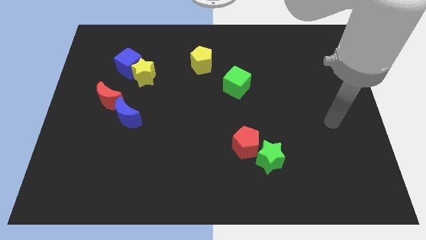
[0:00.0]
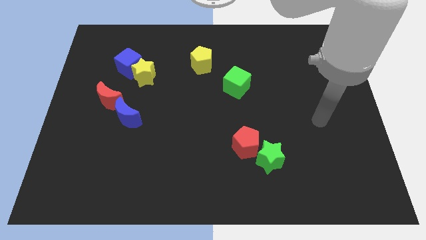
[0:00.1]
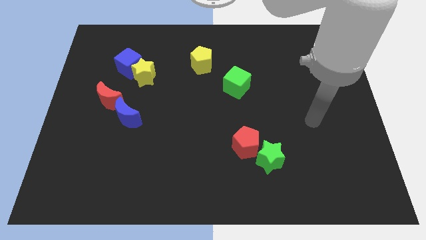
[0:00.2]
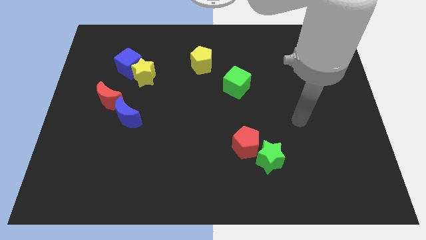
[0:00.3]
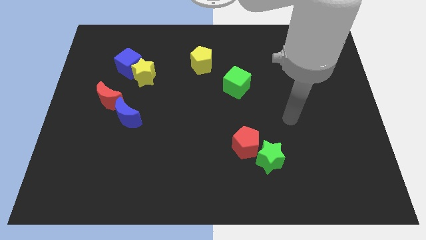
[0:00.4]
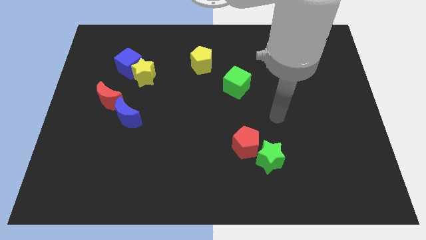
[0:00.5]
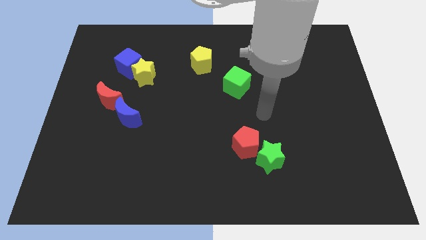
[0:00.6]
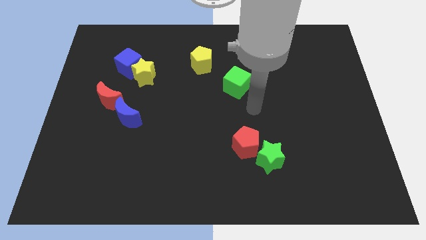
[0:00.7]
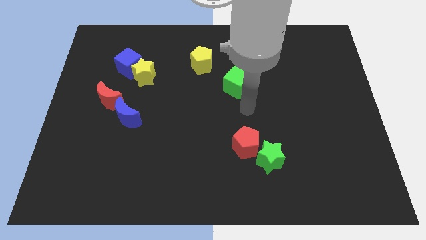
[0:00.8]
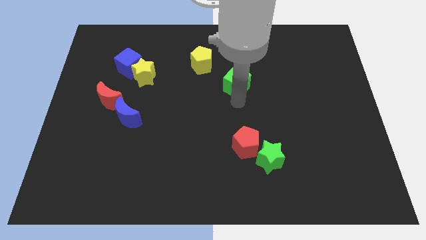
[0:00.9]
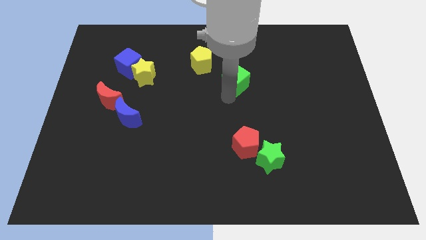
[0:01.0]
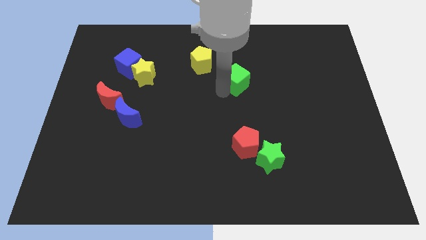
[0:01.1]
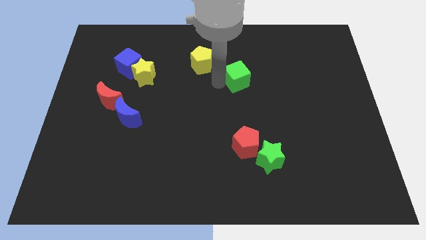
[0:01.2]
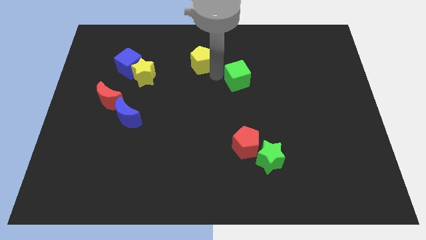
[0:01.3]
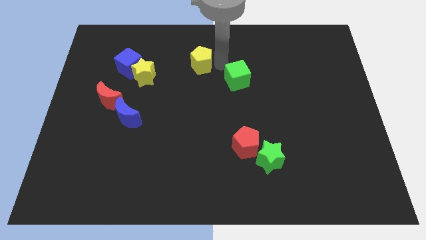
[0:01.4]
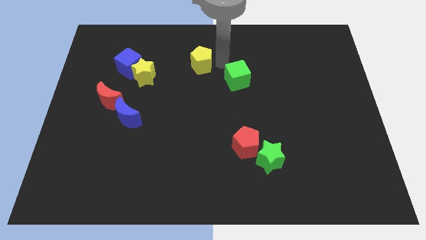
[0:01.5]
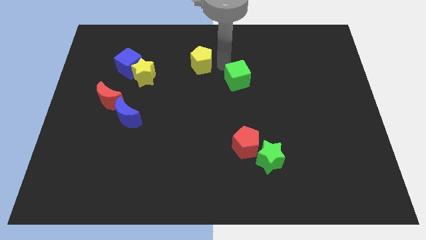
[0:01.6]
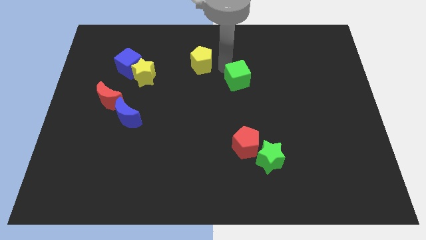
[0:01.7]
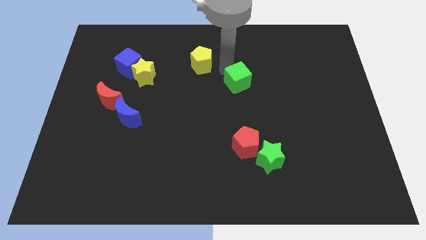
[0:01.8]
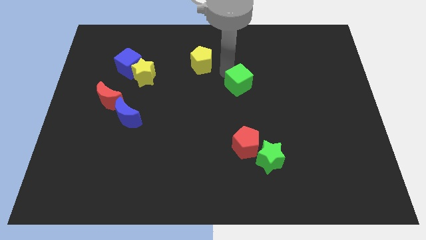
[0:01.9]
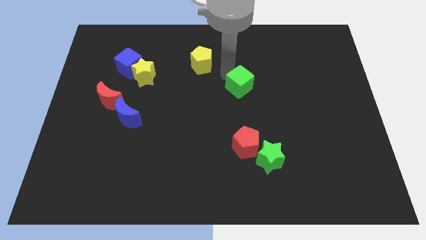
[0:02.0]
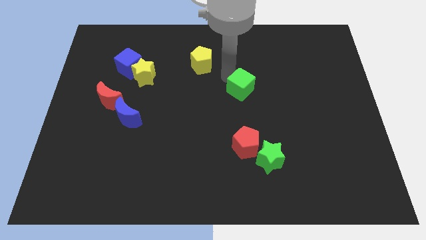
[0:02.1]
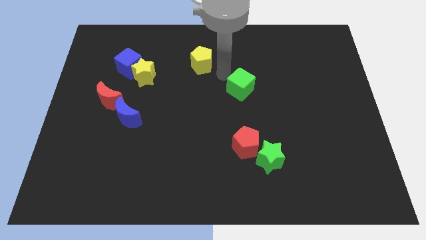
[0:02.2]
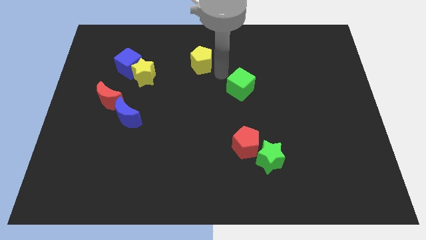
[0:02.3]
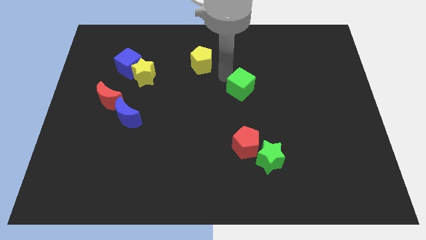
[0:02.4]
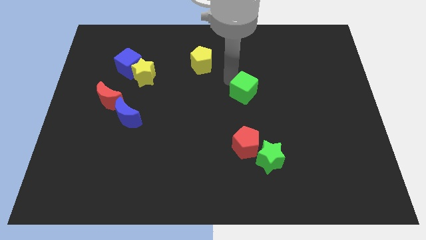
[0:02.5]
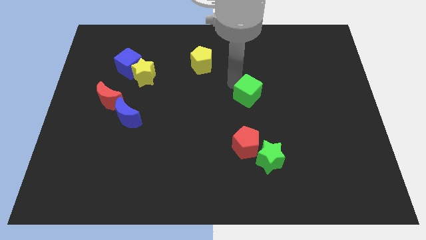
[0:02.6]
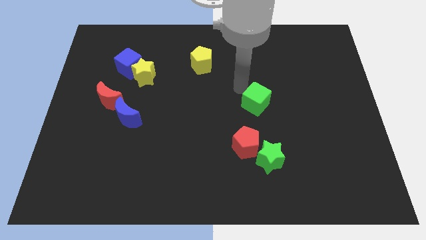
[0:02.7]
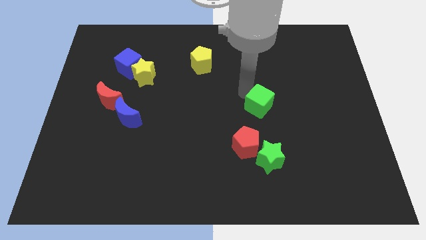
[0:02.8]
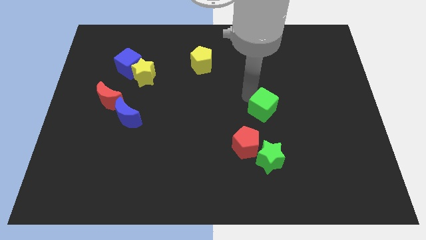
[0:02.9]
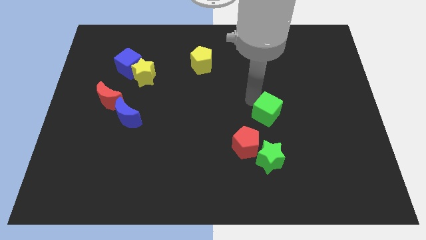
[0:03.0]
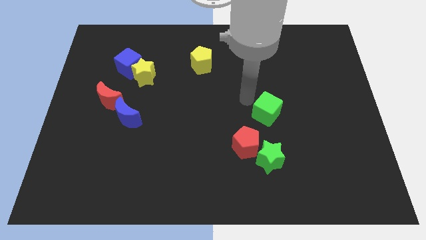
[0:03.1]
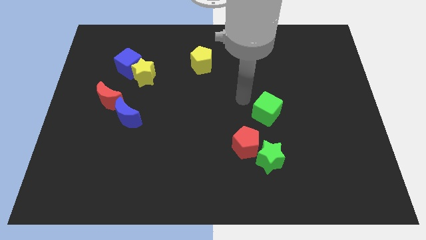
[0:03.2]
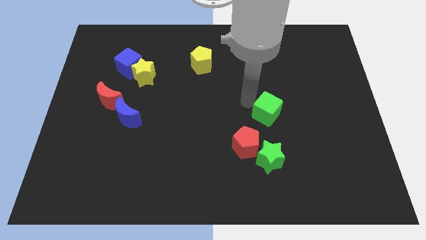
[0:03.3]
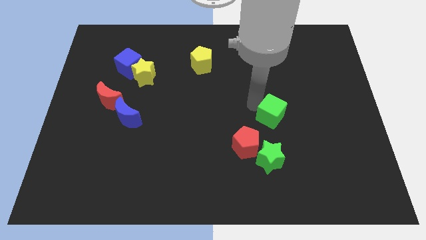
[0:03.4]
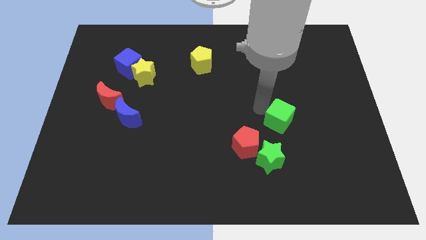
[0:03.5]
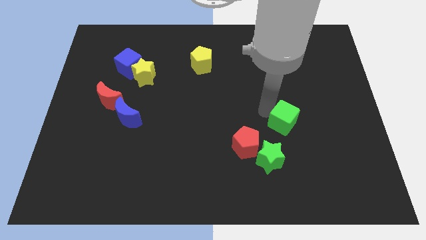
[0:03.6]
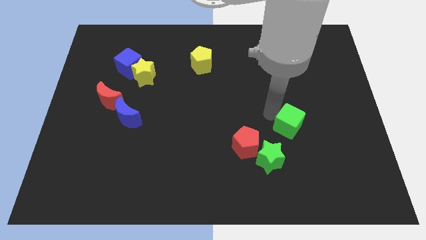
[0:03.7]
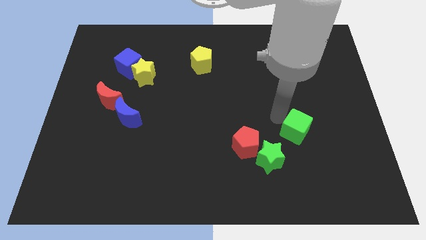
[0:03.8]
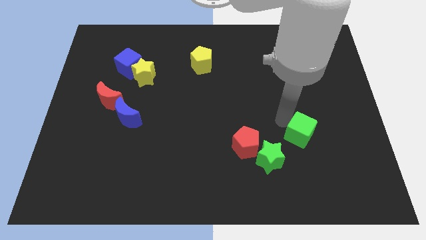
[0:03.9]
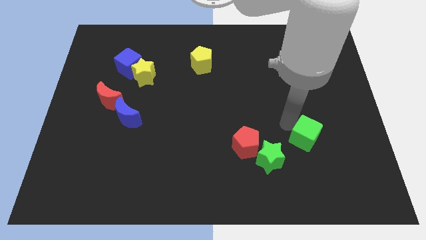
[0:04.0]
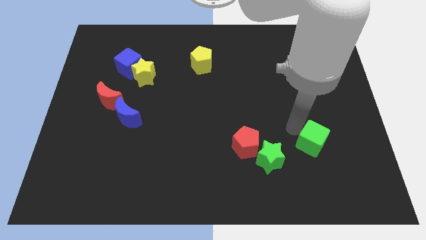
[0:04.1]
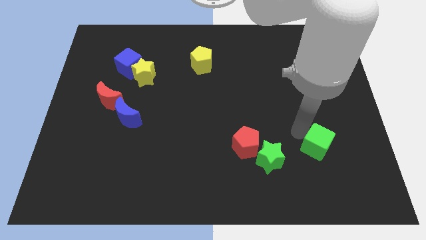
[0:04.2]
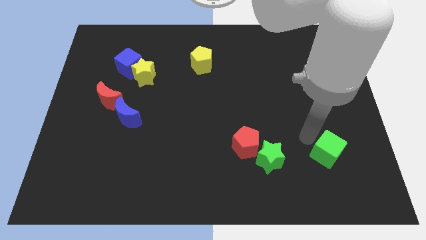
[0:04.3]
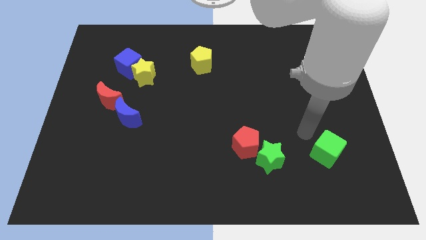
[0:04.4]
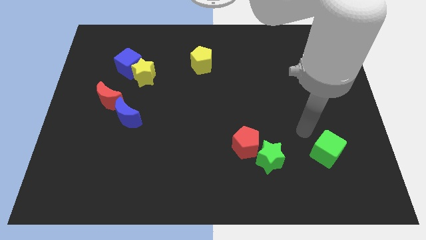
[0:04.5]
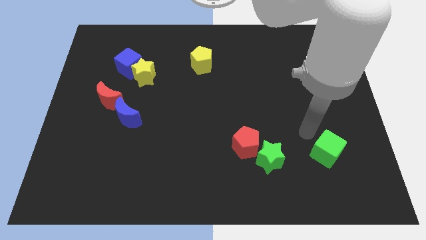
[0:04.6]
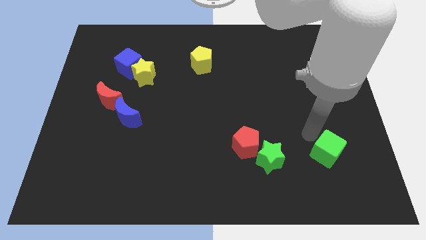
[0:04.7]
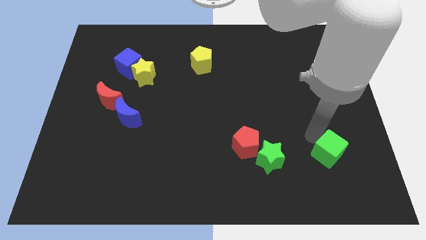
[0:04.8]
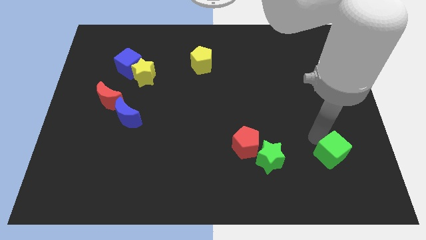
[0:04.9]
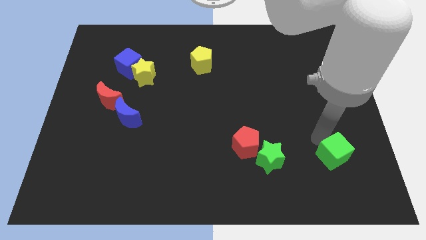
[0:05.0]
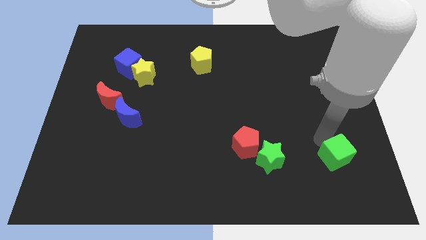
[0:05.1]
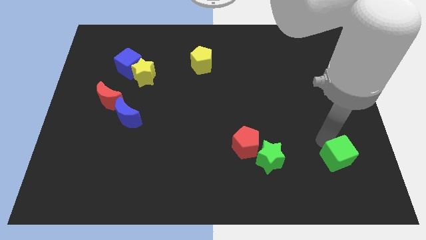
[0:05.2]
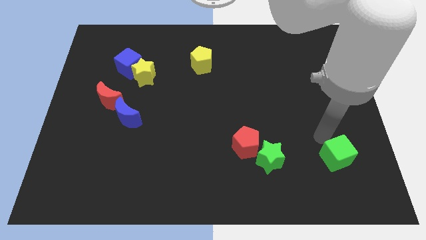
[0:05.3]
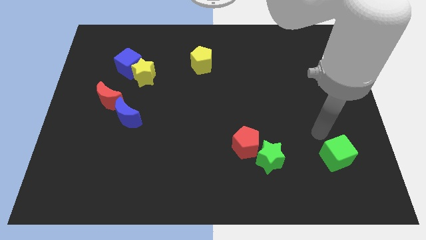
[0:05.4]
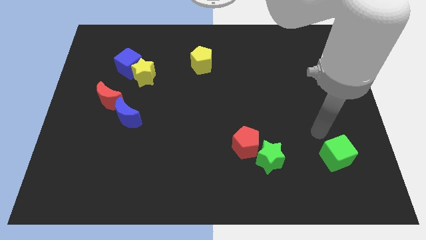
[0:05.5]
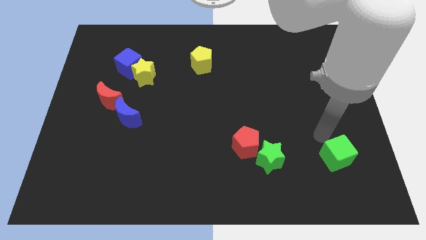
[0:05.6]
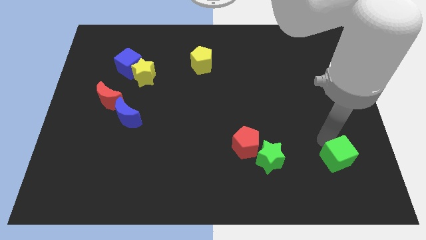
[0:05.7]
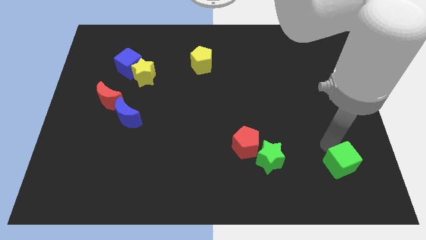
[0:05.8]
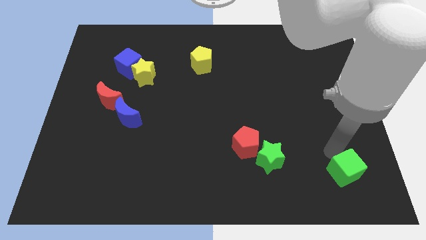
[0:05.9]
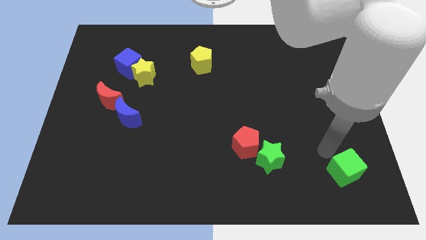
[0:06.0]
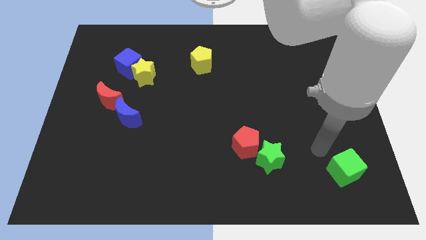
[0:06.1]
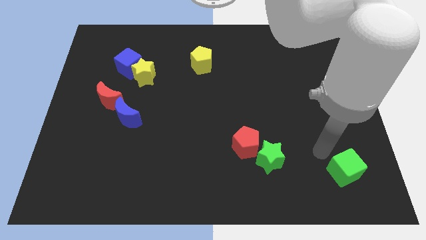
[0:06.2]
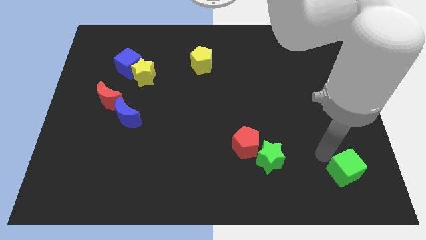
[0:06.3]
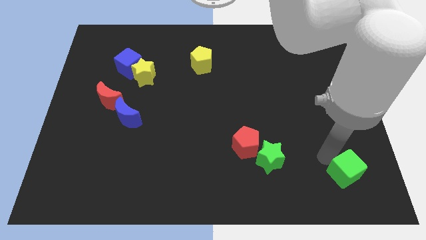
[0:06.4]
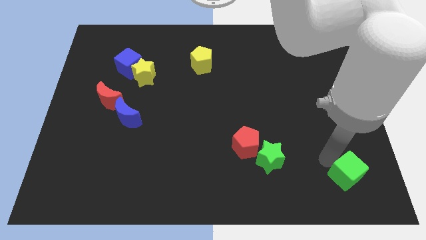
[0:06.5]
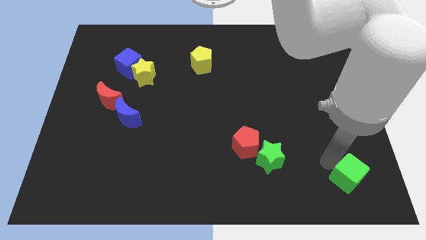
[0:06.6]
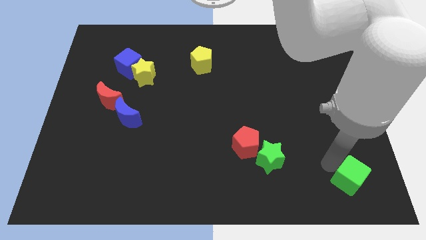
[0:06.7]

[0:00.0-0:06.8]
push the green cube to the bottom right

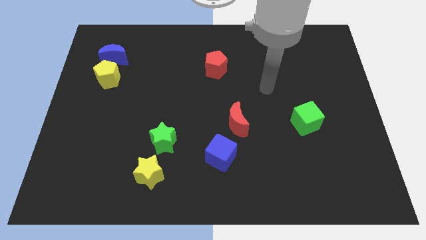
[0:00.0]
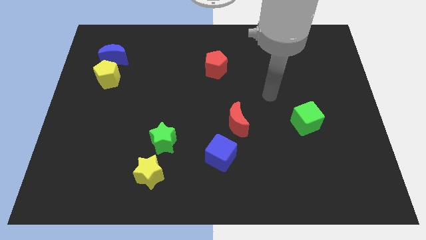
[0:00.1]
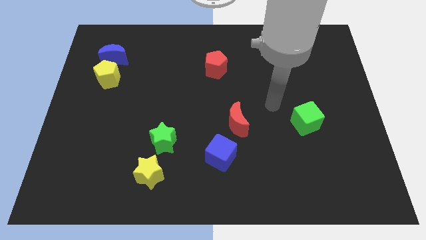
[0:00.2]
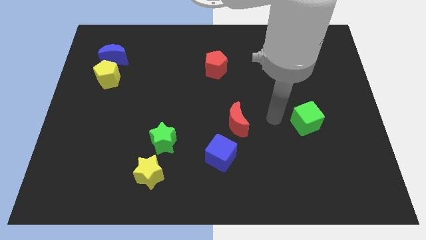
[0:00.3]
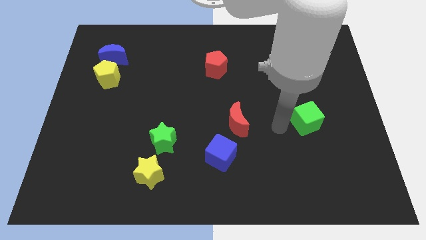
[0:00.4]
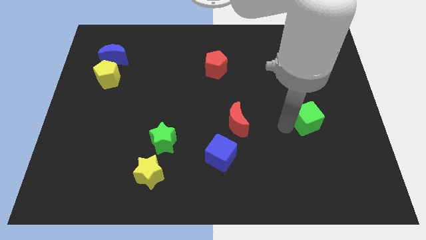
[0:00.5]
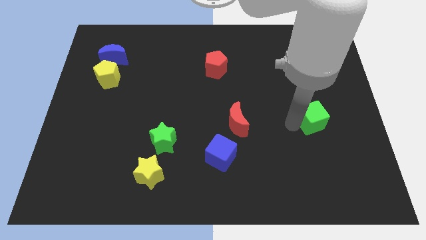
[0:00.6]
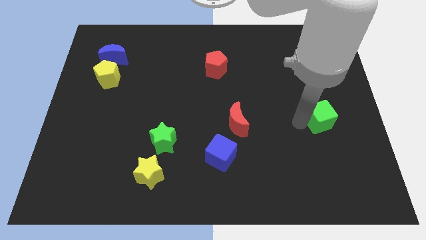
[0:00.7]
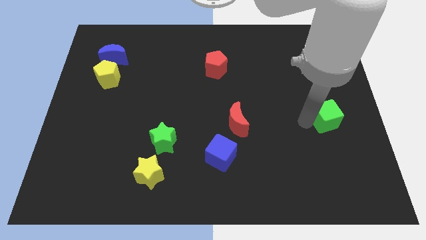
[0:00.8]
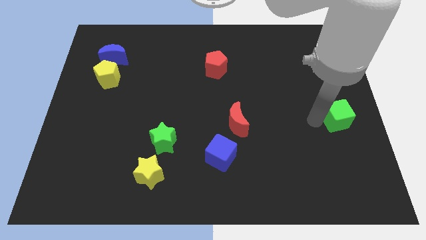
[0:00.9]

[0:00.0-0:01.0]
slide the green cube to the center right
